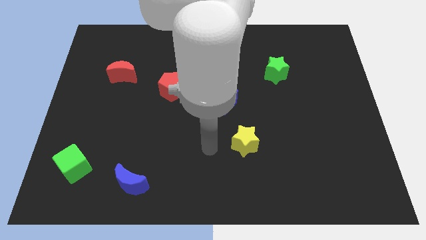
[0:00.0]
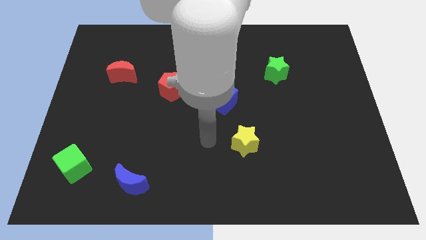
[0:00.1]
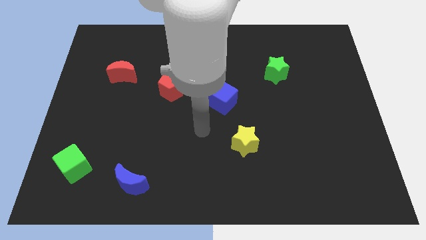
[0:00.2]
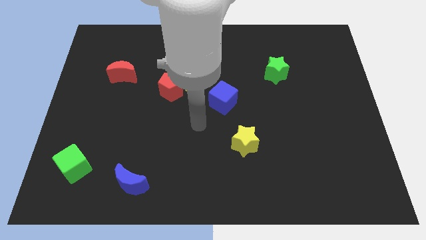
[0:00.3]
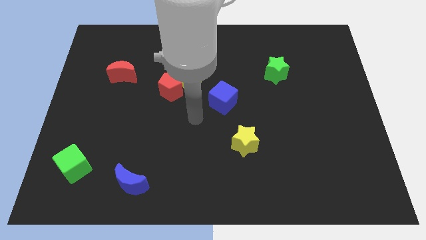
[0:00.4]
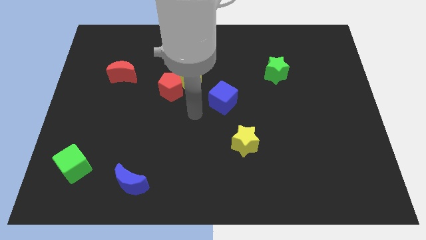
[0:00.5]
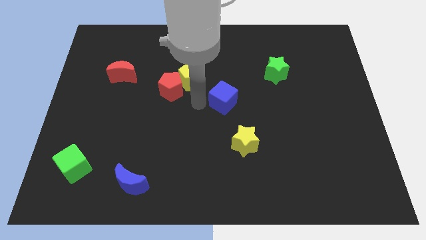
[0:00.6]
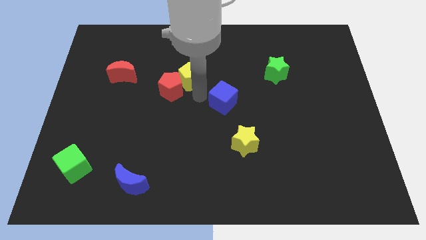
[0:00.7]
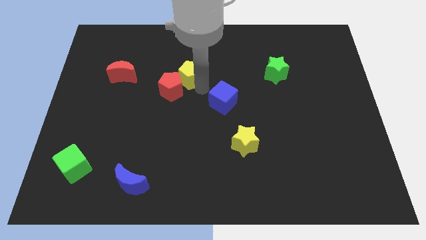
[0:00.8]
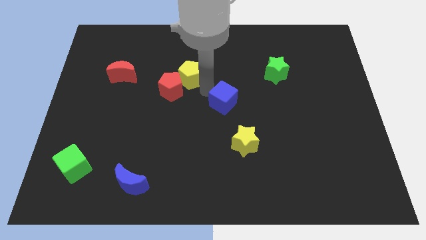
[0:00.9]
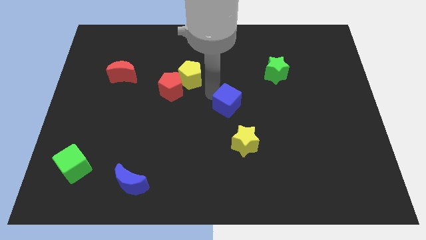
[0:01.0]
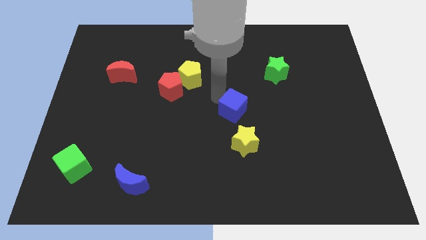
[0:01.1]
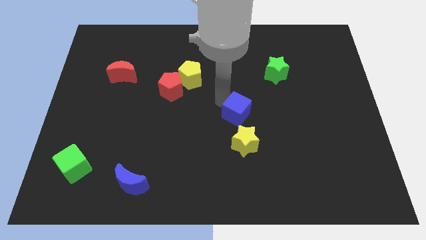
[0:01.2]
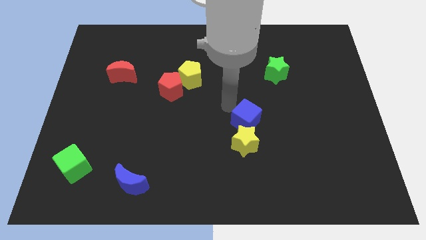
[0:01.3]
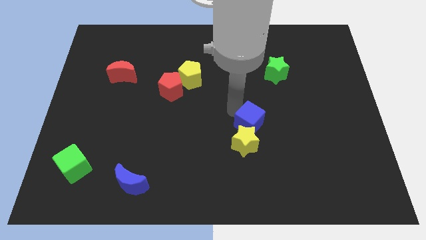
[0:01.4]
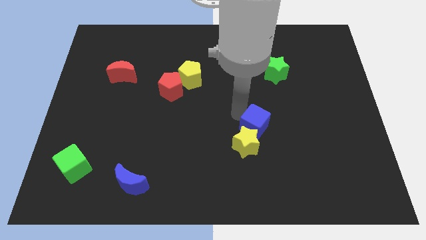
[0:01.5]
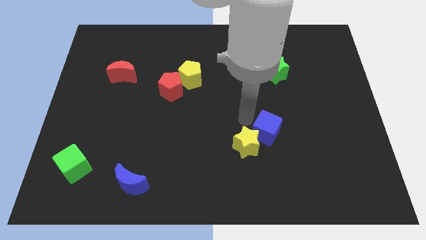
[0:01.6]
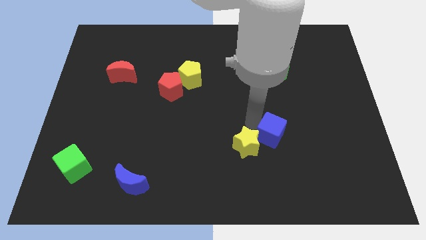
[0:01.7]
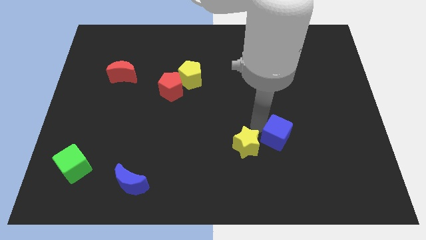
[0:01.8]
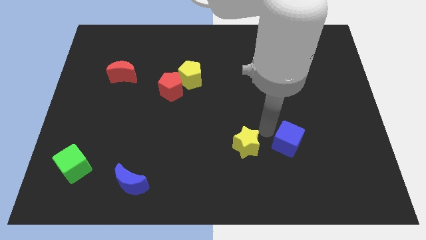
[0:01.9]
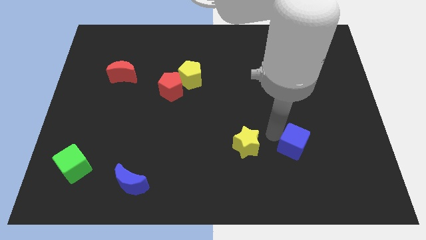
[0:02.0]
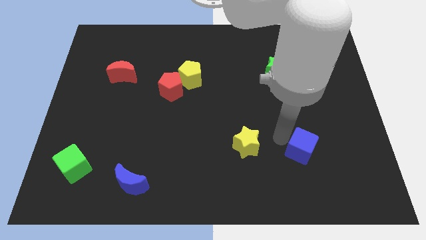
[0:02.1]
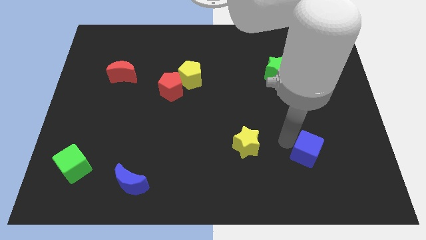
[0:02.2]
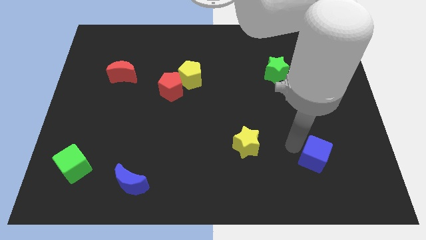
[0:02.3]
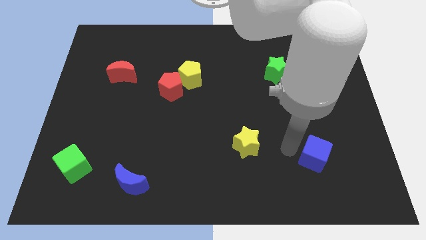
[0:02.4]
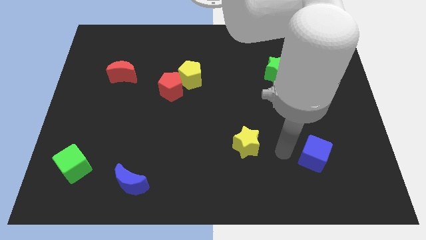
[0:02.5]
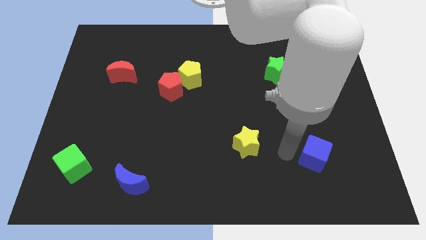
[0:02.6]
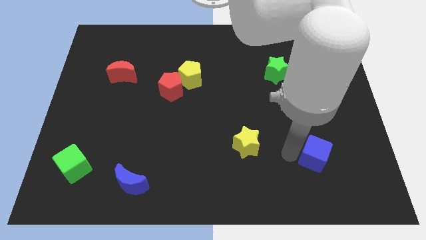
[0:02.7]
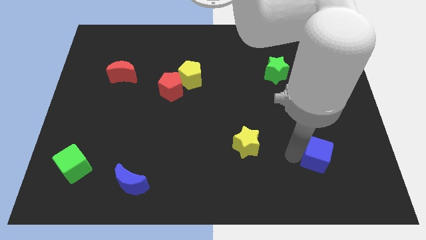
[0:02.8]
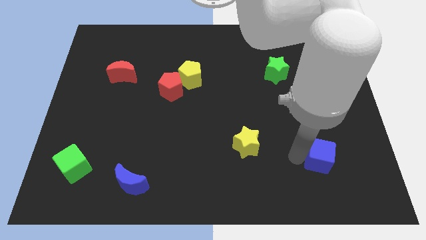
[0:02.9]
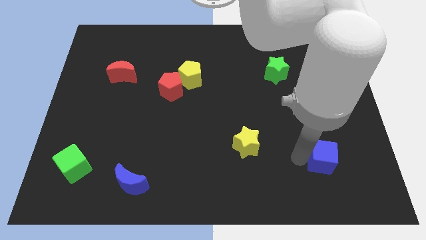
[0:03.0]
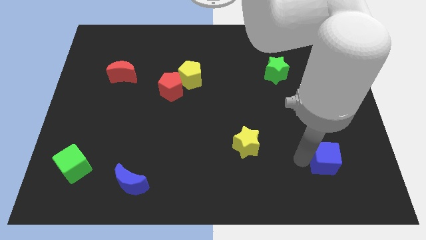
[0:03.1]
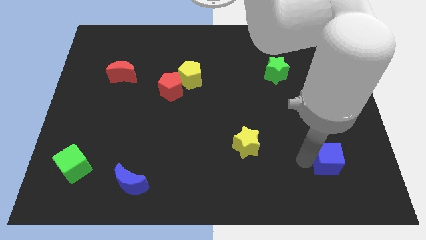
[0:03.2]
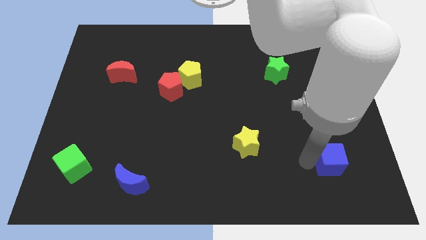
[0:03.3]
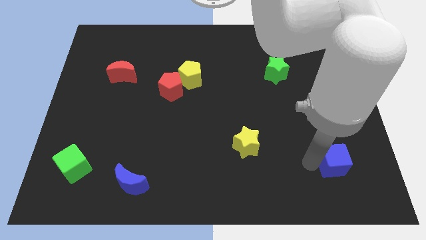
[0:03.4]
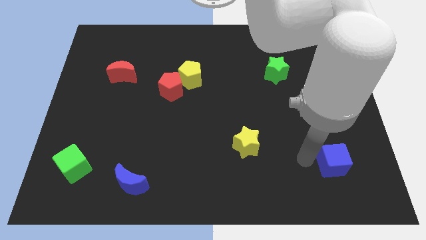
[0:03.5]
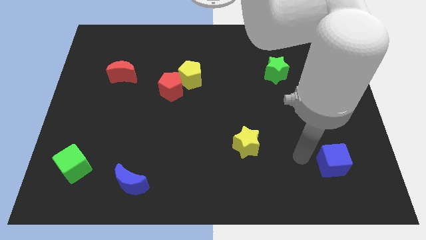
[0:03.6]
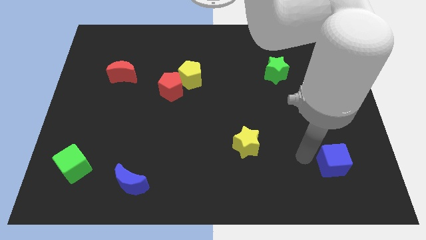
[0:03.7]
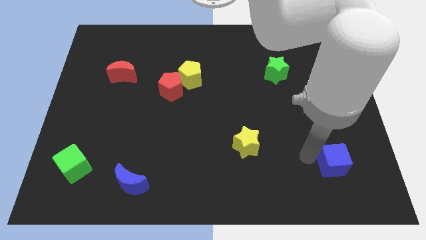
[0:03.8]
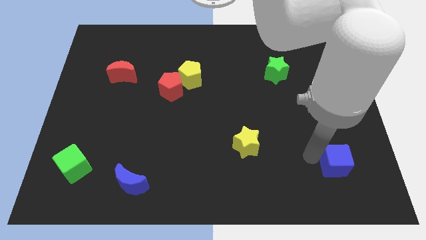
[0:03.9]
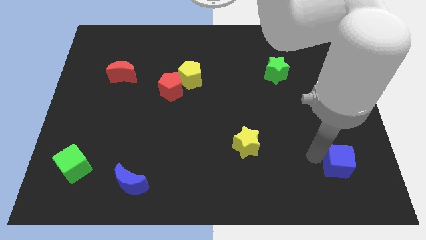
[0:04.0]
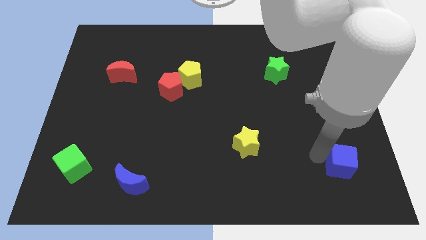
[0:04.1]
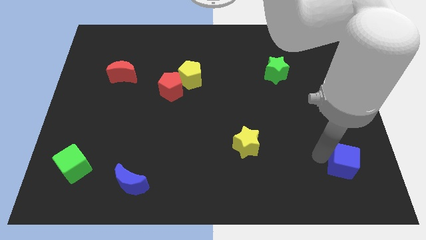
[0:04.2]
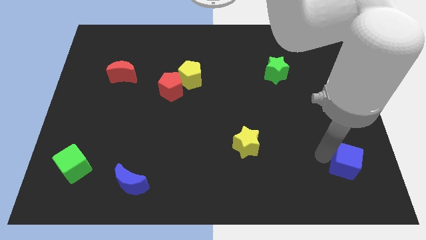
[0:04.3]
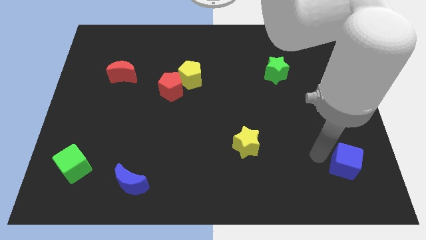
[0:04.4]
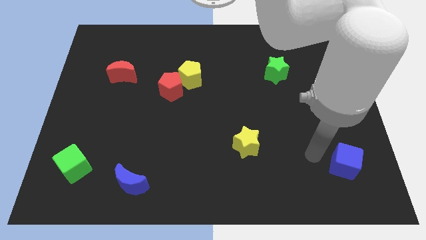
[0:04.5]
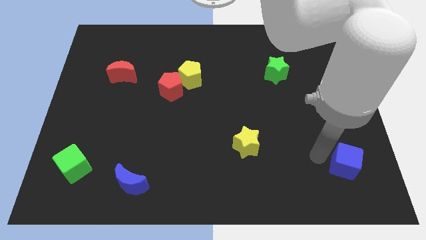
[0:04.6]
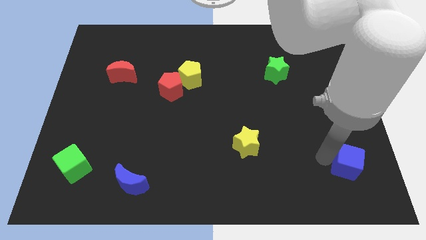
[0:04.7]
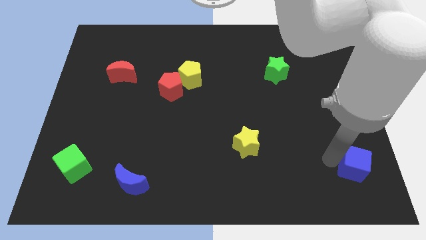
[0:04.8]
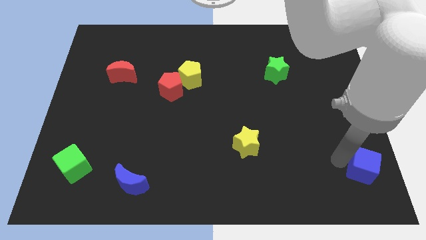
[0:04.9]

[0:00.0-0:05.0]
slide the blue cube to the bottom right corner
